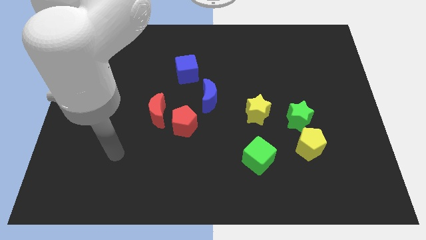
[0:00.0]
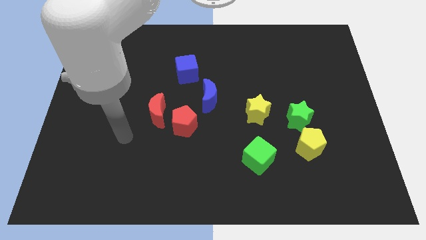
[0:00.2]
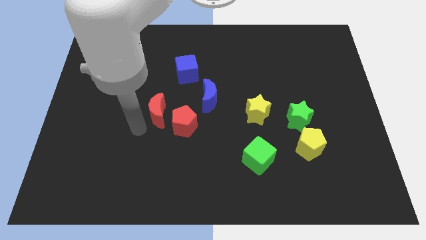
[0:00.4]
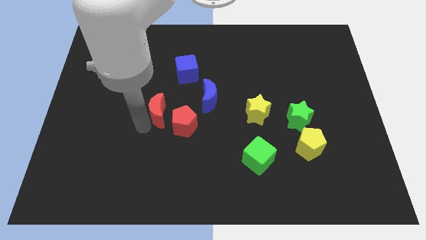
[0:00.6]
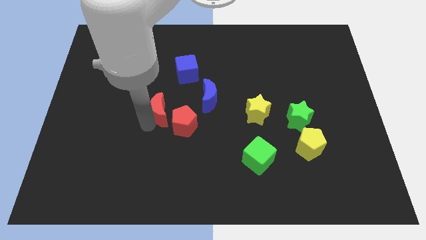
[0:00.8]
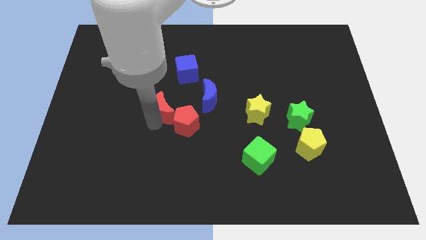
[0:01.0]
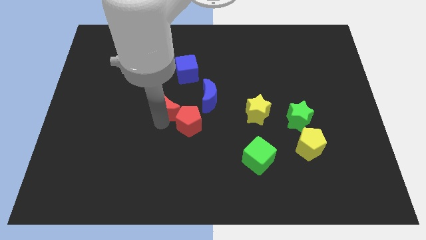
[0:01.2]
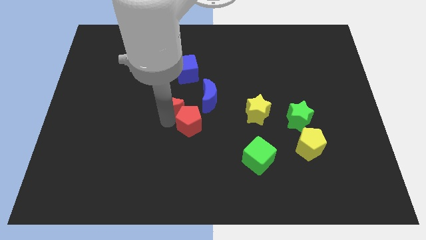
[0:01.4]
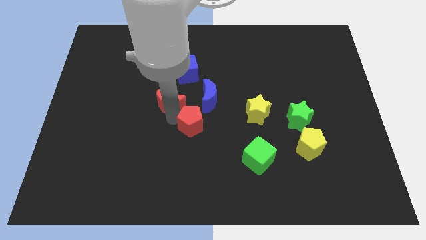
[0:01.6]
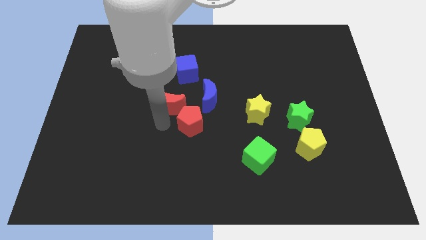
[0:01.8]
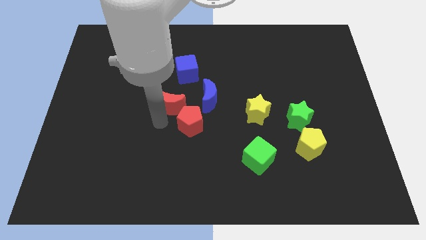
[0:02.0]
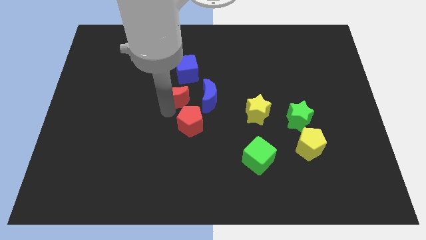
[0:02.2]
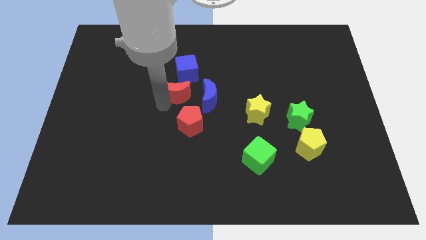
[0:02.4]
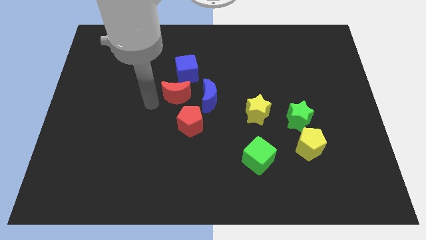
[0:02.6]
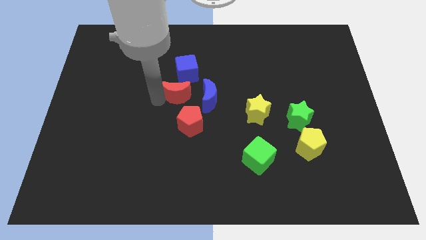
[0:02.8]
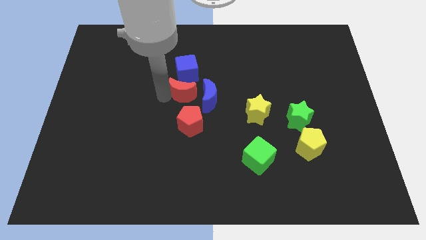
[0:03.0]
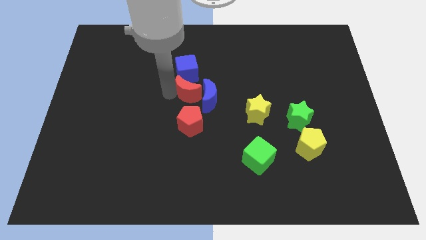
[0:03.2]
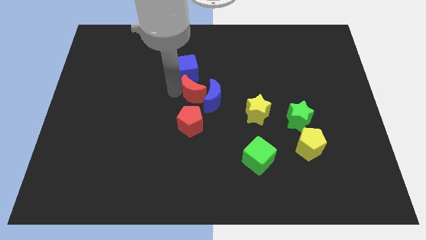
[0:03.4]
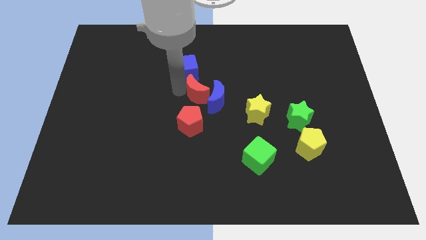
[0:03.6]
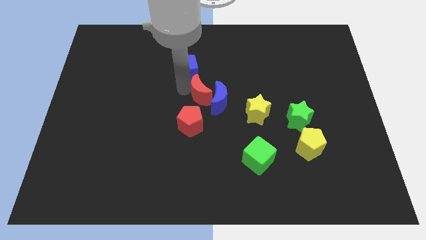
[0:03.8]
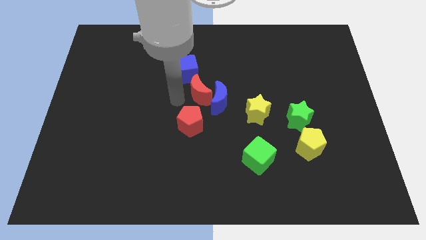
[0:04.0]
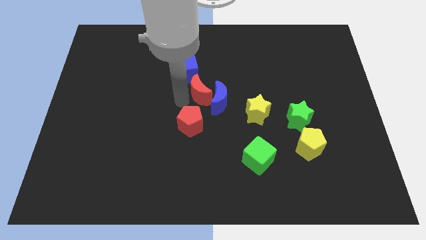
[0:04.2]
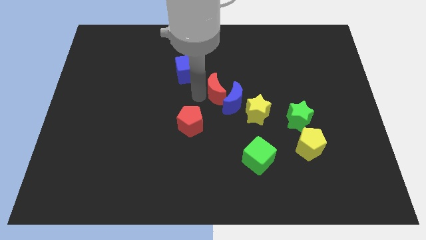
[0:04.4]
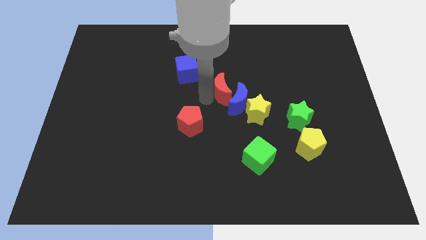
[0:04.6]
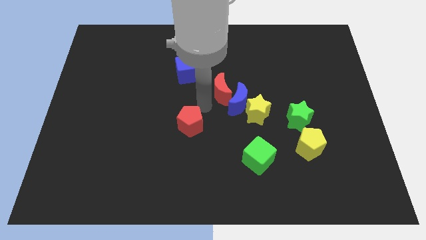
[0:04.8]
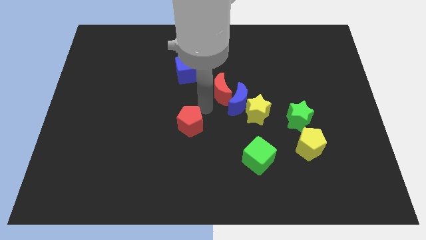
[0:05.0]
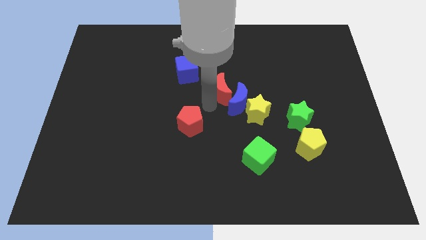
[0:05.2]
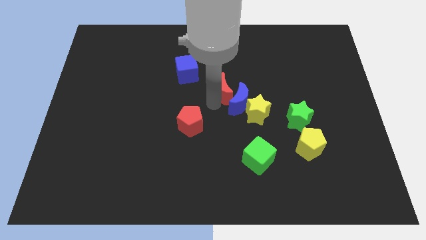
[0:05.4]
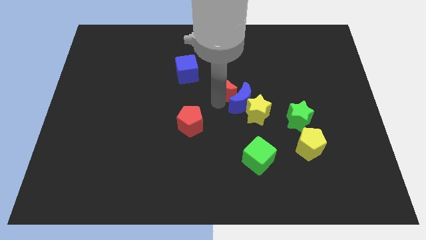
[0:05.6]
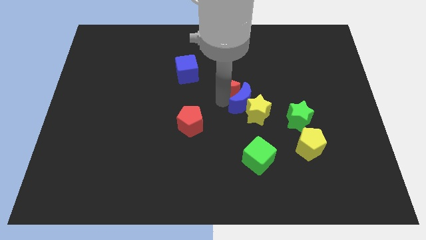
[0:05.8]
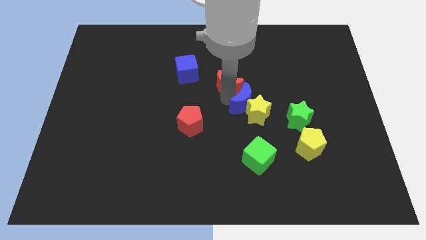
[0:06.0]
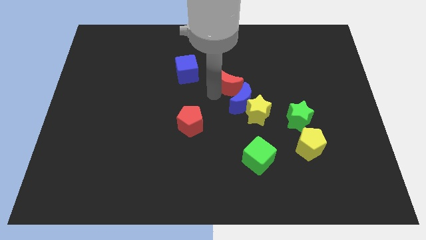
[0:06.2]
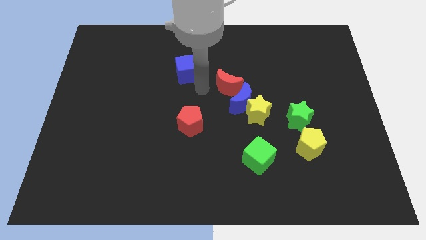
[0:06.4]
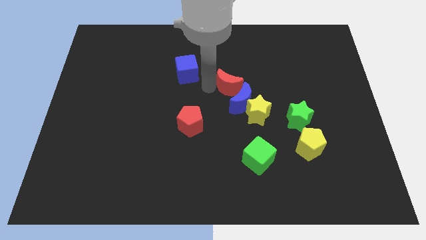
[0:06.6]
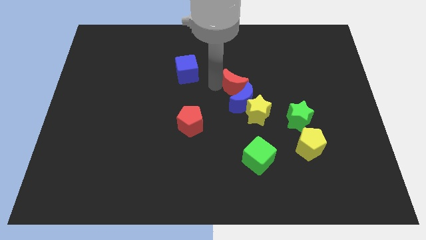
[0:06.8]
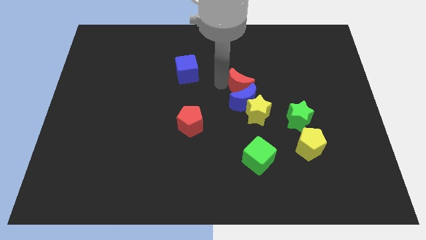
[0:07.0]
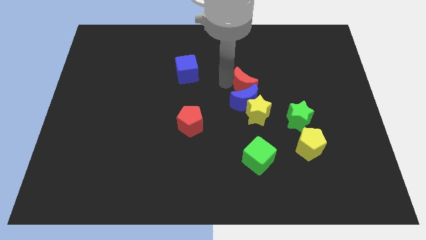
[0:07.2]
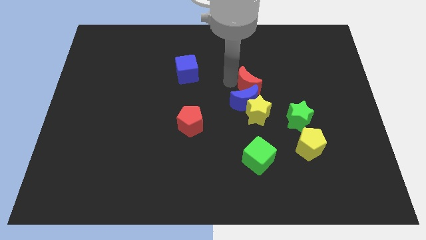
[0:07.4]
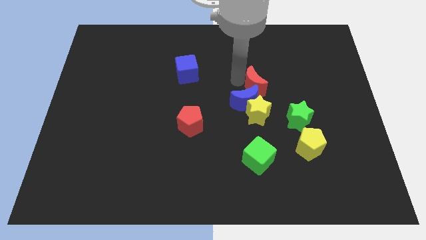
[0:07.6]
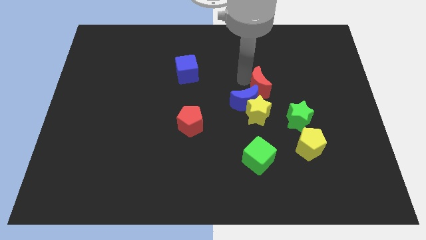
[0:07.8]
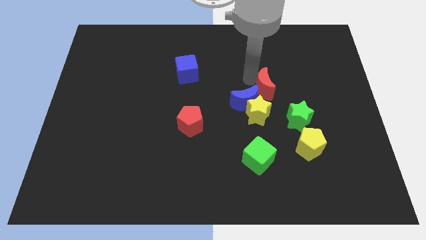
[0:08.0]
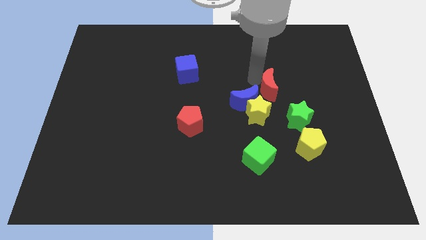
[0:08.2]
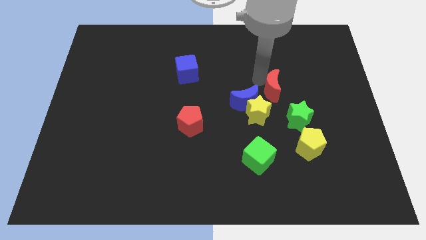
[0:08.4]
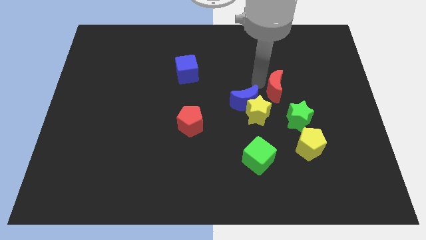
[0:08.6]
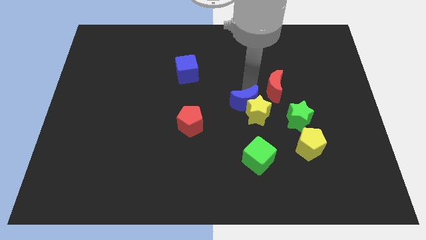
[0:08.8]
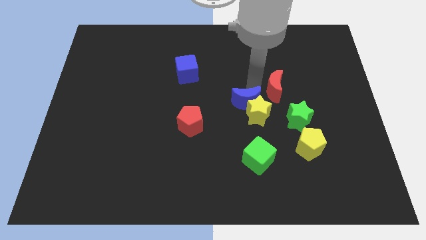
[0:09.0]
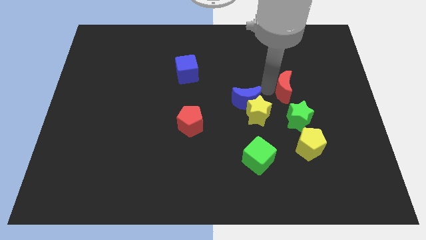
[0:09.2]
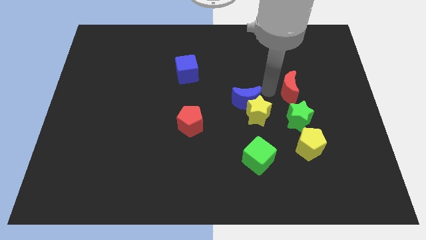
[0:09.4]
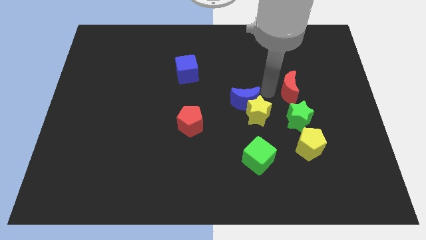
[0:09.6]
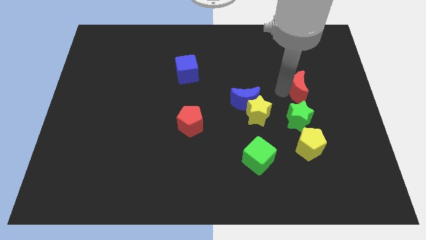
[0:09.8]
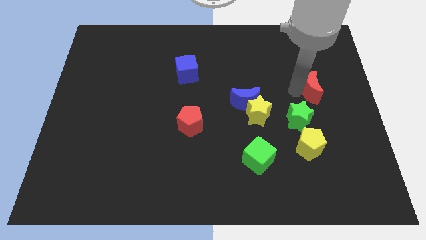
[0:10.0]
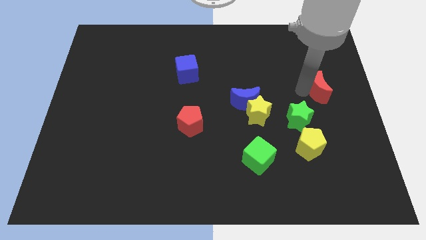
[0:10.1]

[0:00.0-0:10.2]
slide the red moon to the right side of the board

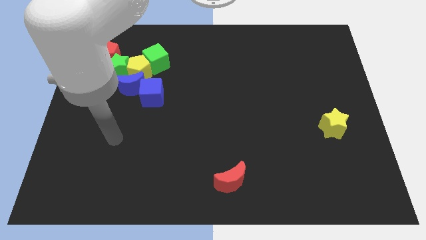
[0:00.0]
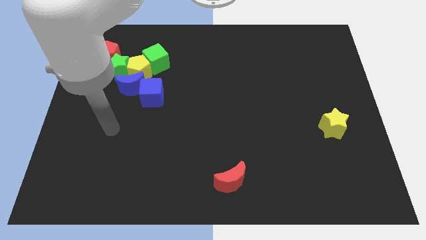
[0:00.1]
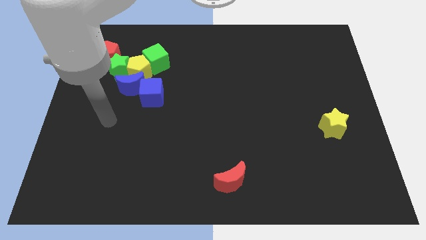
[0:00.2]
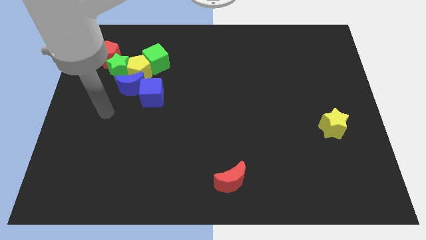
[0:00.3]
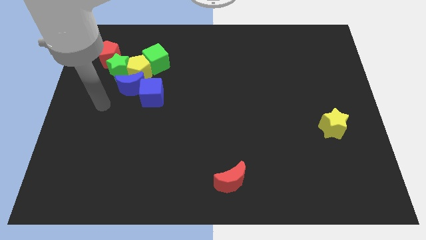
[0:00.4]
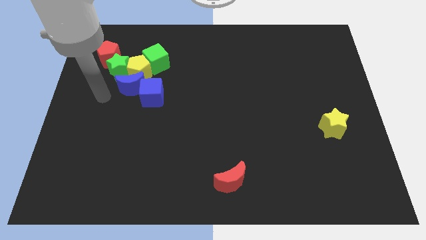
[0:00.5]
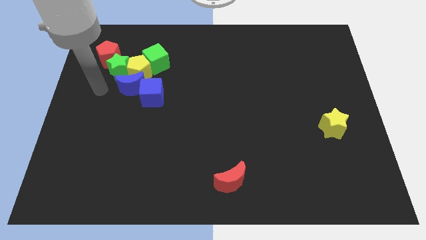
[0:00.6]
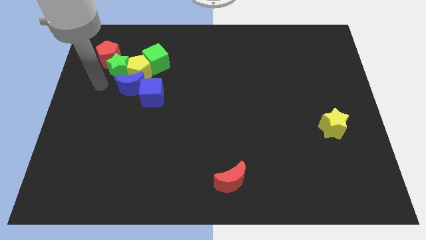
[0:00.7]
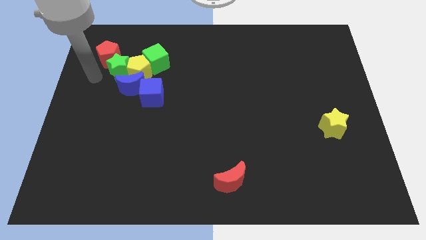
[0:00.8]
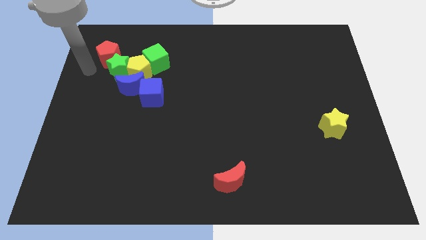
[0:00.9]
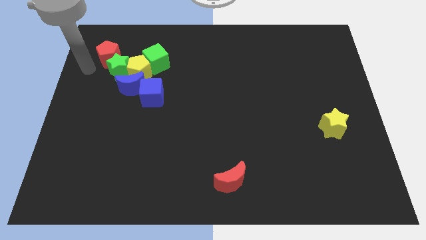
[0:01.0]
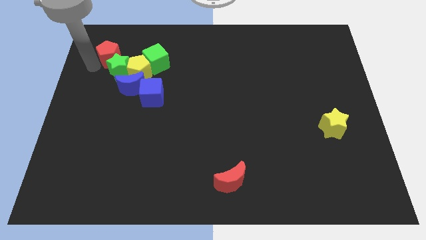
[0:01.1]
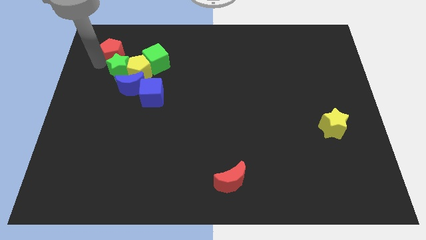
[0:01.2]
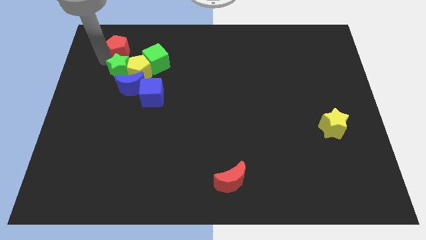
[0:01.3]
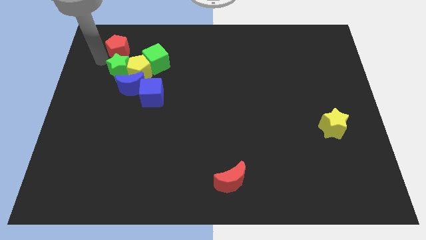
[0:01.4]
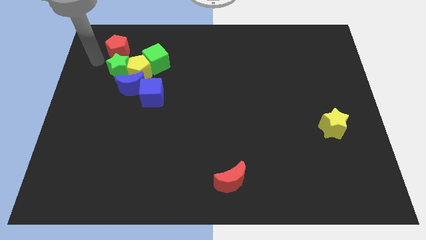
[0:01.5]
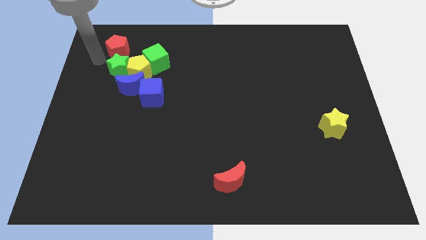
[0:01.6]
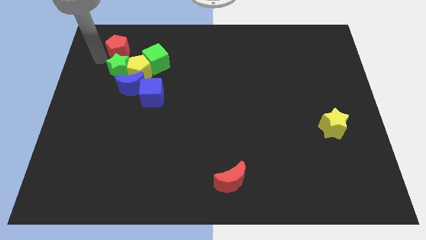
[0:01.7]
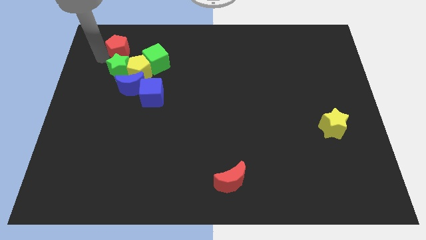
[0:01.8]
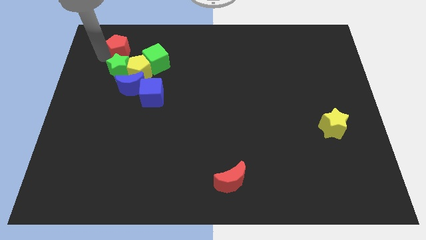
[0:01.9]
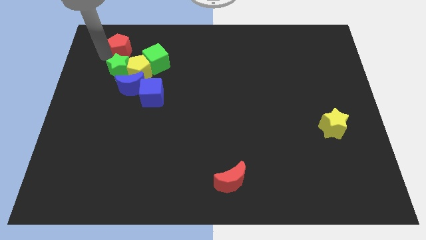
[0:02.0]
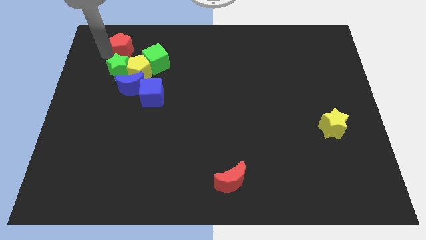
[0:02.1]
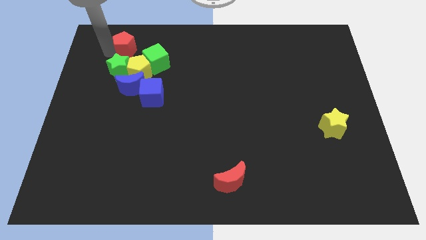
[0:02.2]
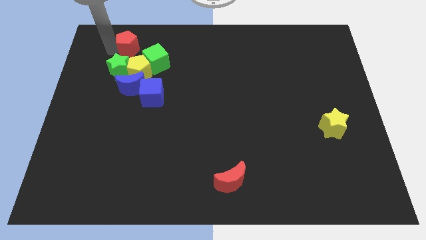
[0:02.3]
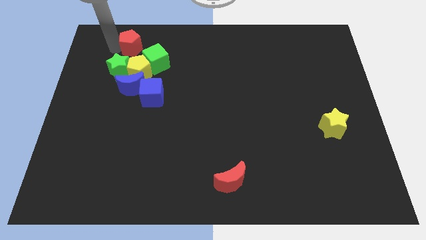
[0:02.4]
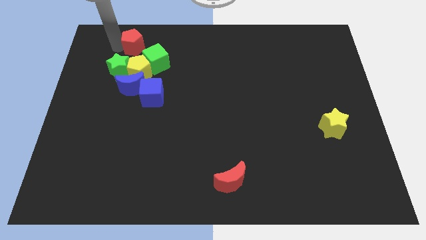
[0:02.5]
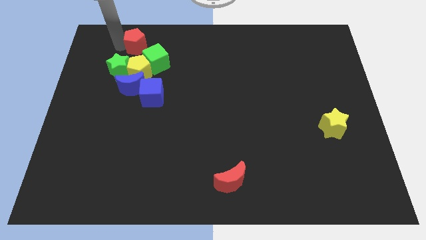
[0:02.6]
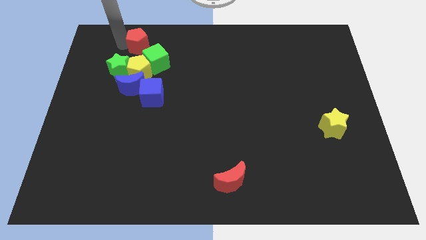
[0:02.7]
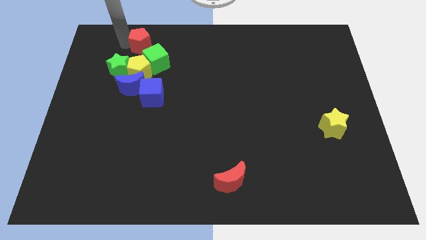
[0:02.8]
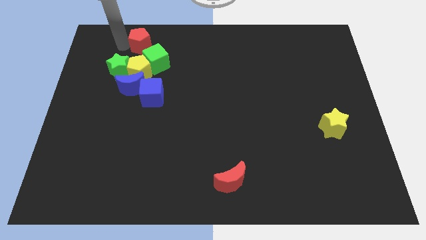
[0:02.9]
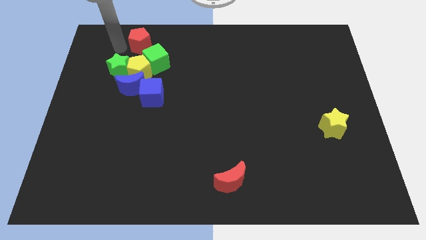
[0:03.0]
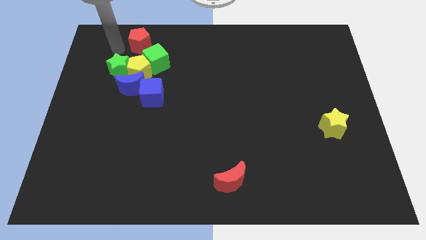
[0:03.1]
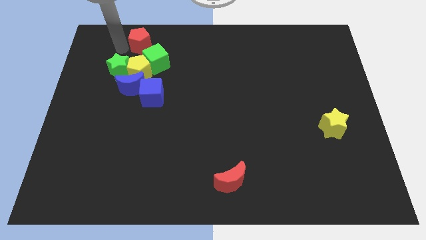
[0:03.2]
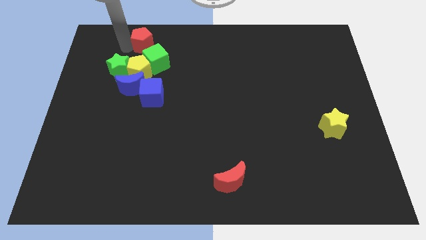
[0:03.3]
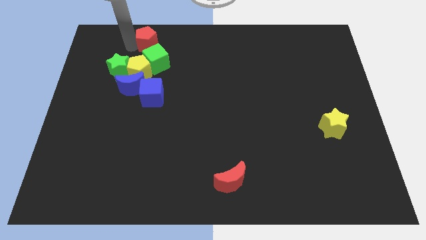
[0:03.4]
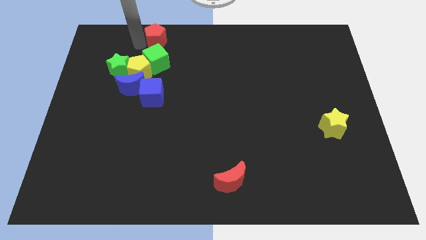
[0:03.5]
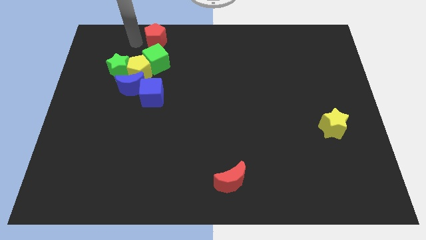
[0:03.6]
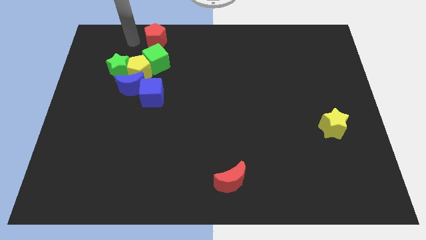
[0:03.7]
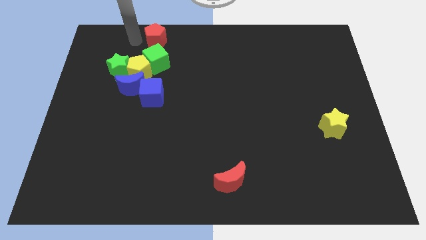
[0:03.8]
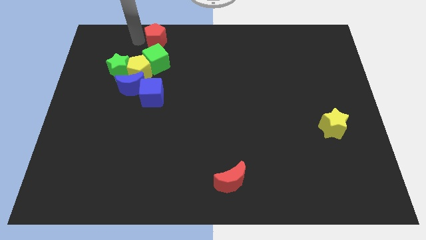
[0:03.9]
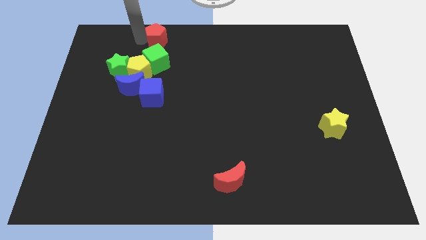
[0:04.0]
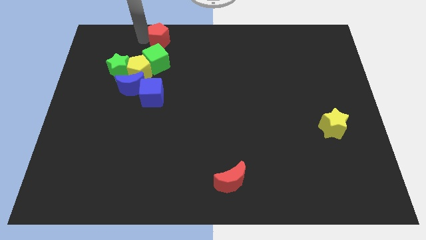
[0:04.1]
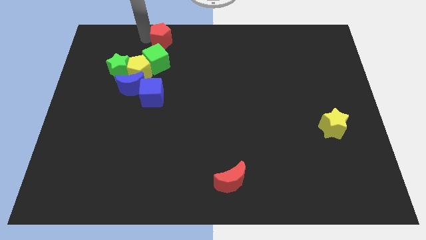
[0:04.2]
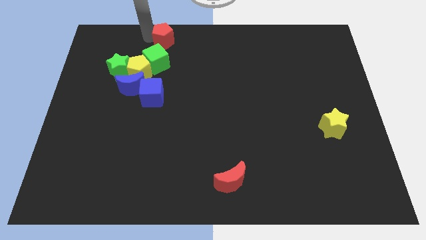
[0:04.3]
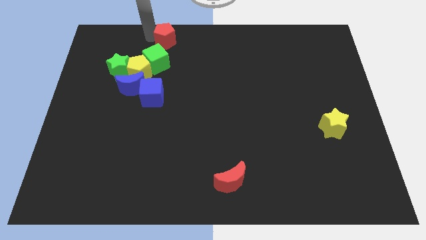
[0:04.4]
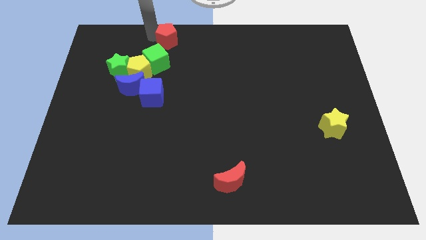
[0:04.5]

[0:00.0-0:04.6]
slide the red pentagon to the top
